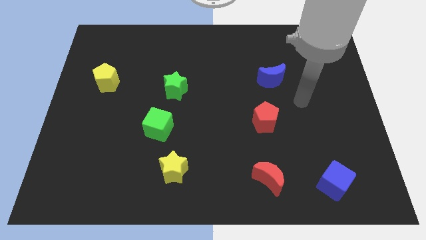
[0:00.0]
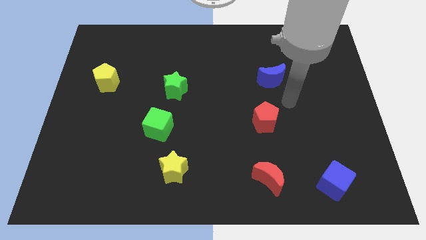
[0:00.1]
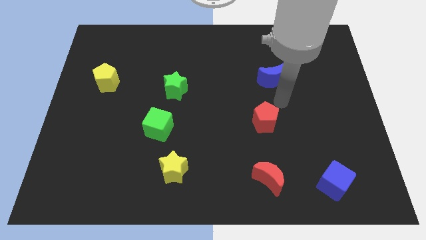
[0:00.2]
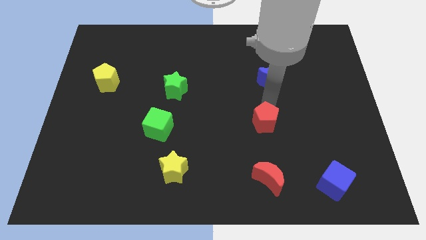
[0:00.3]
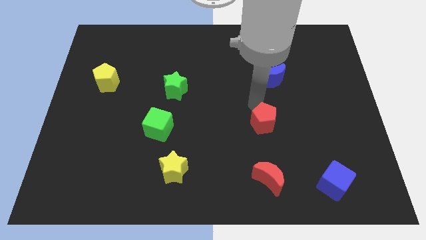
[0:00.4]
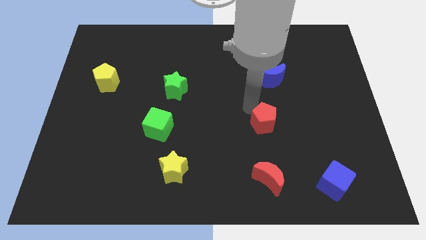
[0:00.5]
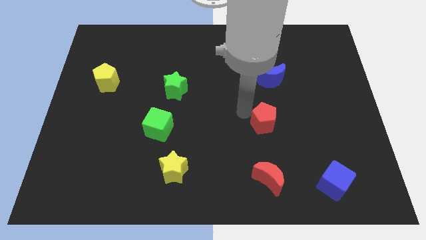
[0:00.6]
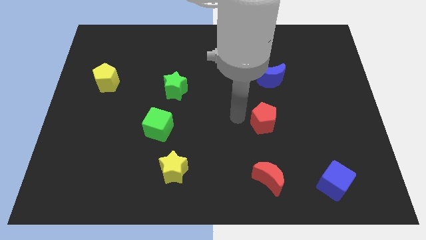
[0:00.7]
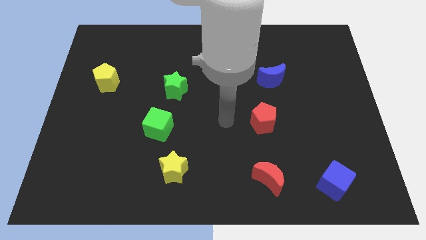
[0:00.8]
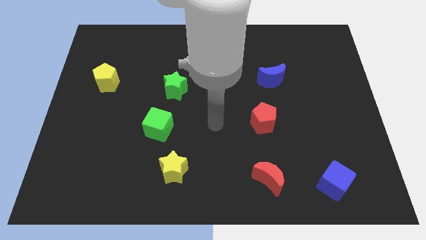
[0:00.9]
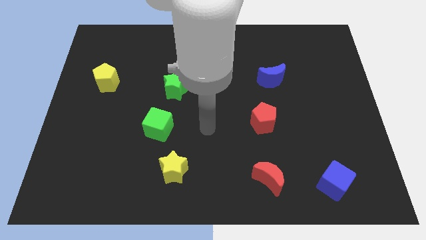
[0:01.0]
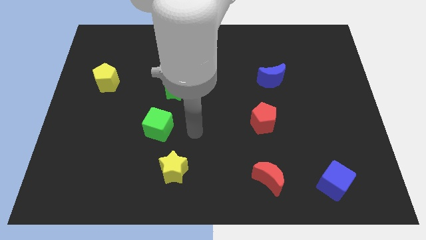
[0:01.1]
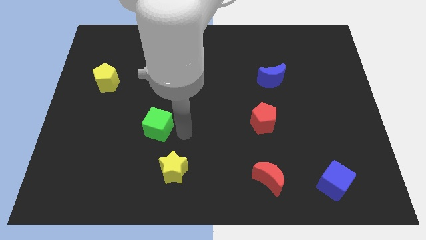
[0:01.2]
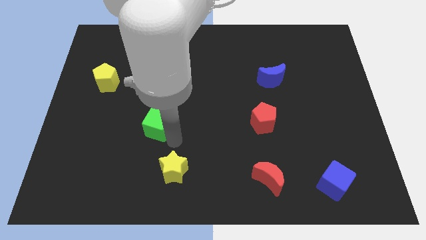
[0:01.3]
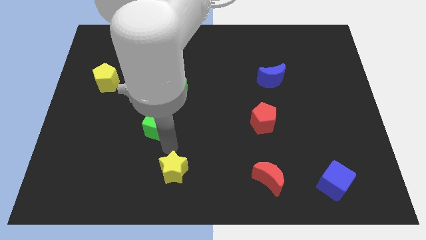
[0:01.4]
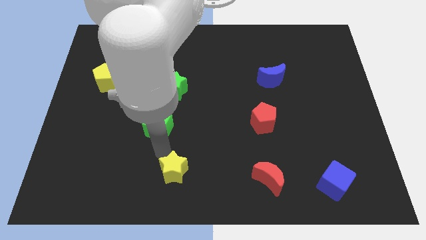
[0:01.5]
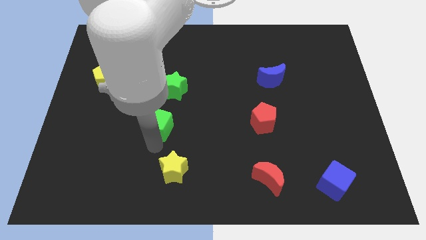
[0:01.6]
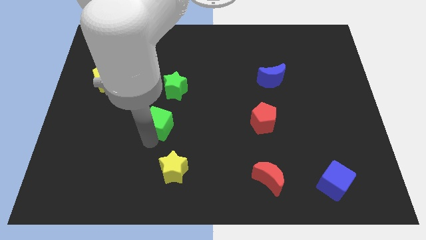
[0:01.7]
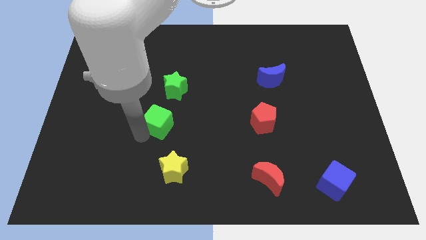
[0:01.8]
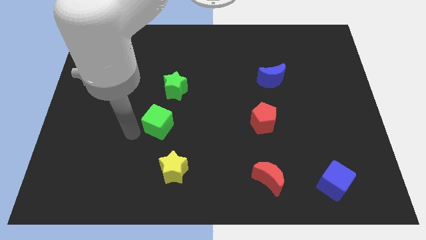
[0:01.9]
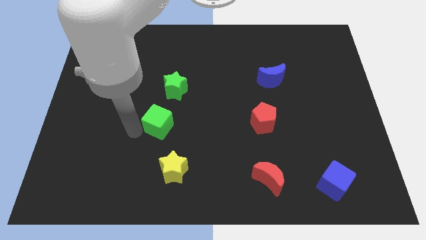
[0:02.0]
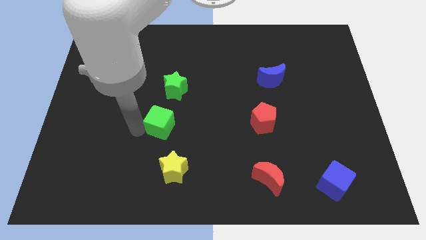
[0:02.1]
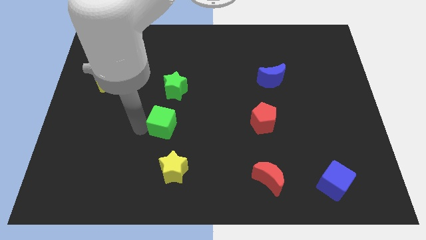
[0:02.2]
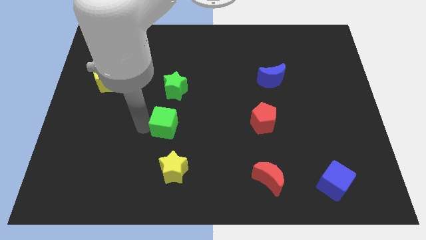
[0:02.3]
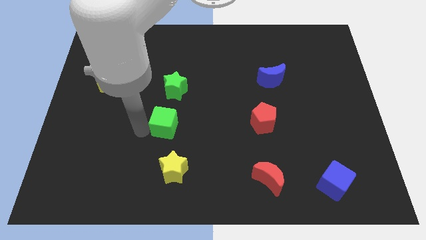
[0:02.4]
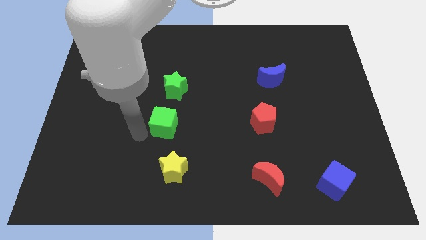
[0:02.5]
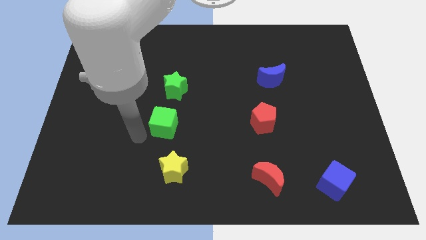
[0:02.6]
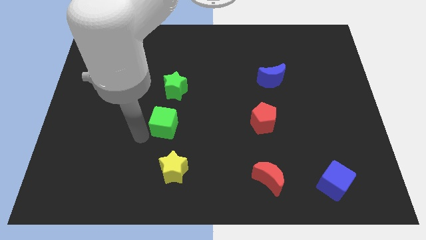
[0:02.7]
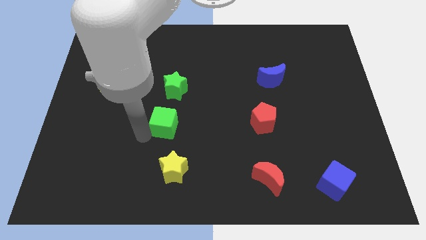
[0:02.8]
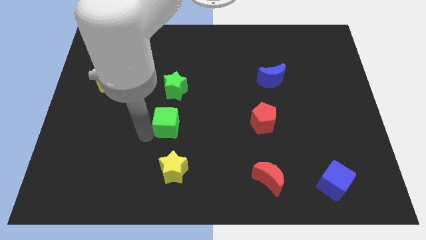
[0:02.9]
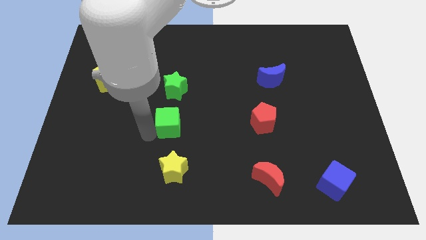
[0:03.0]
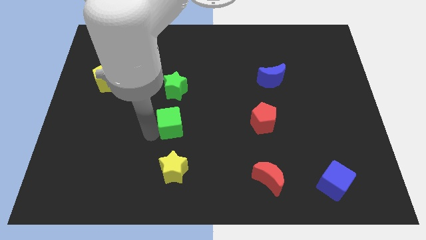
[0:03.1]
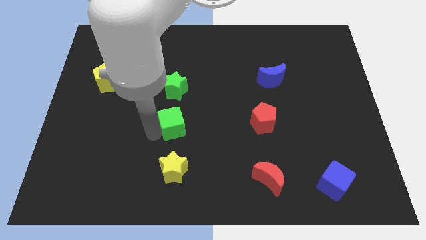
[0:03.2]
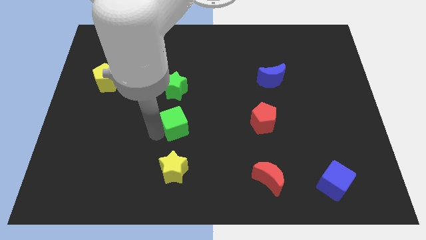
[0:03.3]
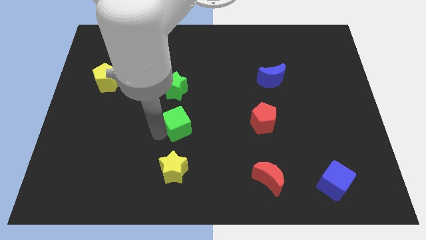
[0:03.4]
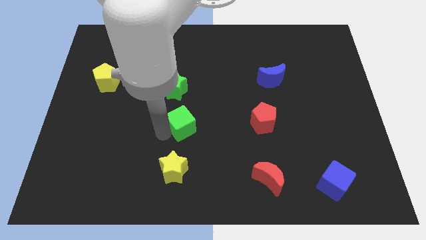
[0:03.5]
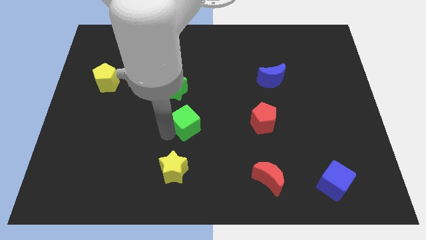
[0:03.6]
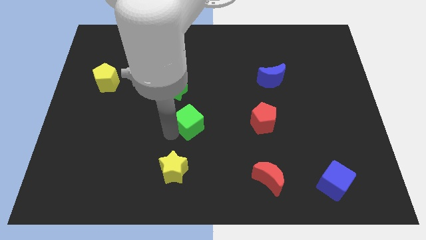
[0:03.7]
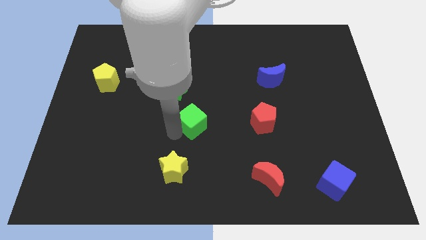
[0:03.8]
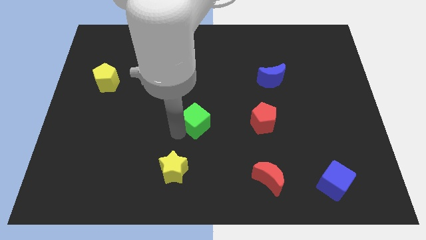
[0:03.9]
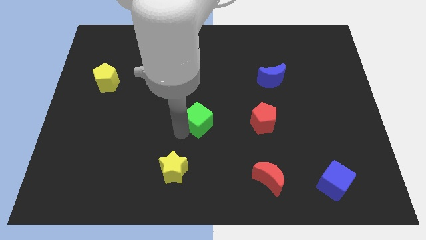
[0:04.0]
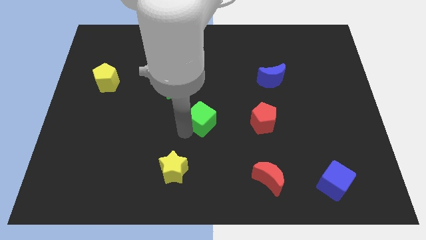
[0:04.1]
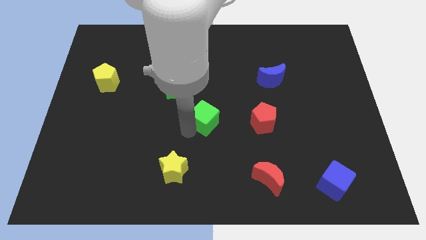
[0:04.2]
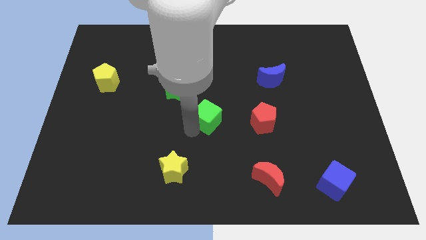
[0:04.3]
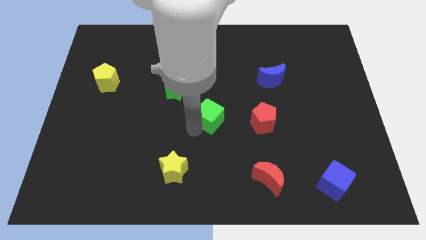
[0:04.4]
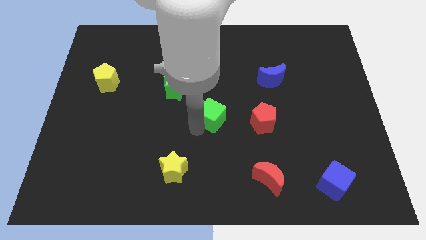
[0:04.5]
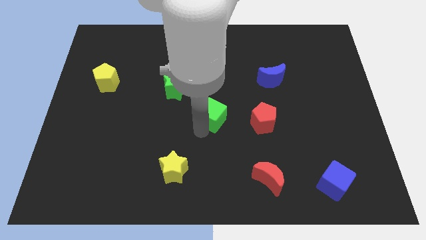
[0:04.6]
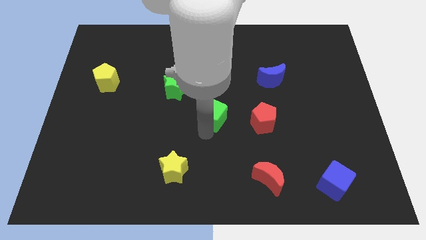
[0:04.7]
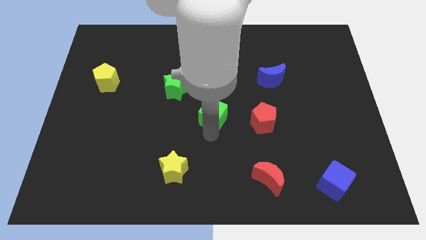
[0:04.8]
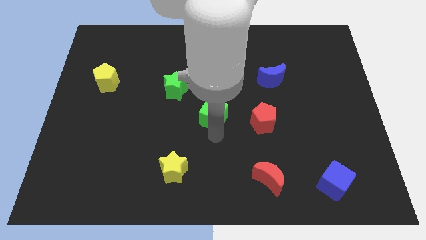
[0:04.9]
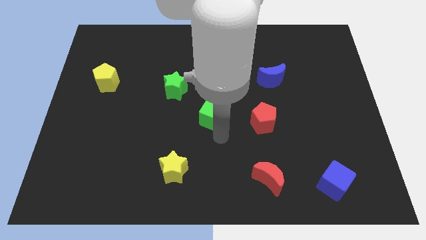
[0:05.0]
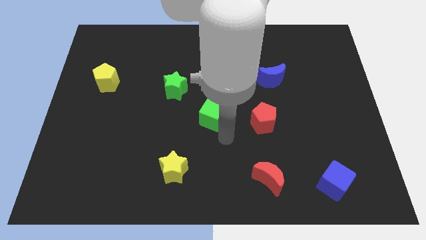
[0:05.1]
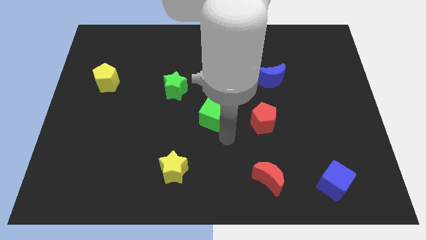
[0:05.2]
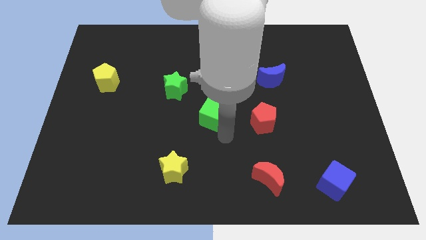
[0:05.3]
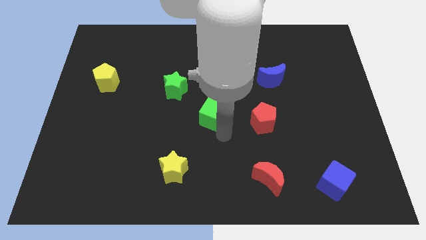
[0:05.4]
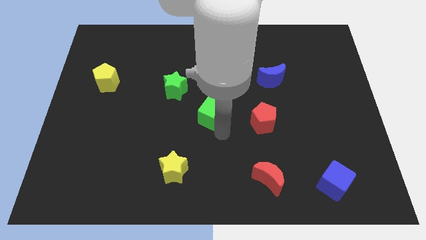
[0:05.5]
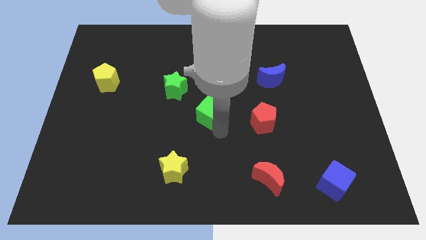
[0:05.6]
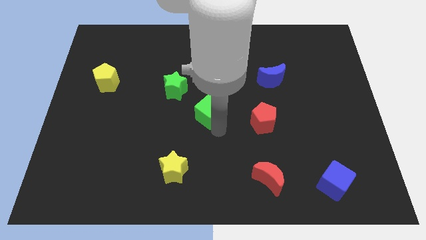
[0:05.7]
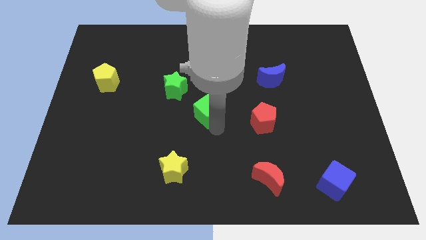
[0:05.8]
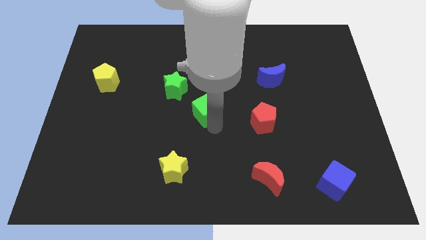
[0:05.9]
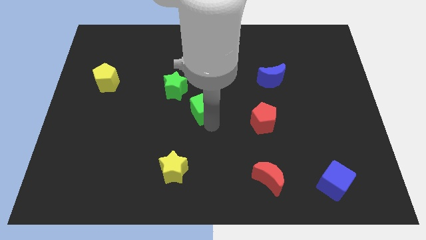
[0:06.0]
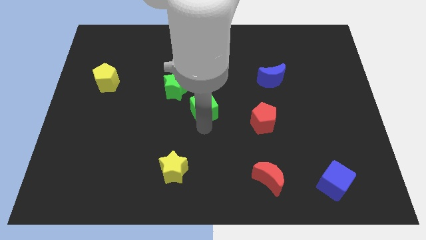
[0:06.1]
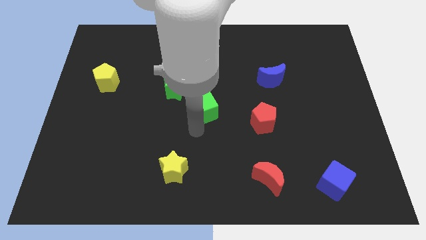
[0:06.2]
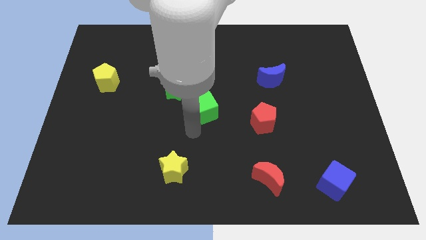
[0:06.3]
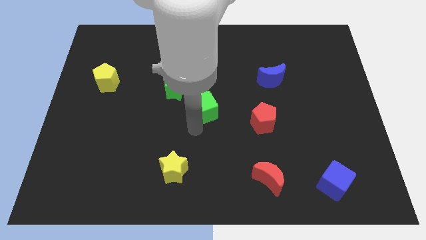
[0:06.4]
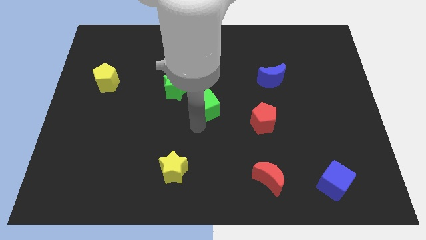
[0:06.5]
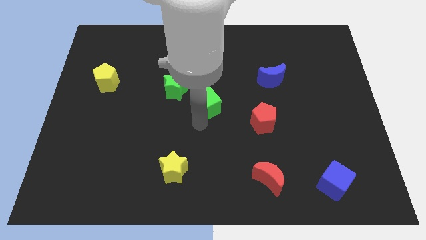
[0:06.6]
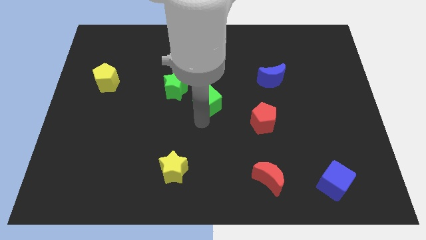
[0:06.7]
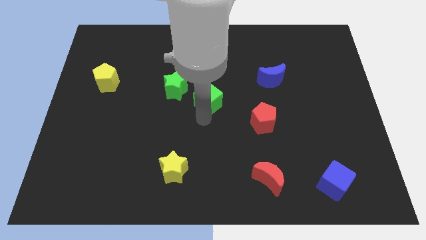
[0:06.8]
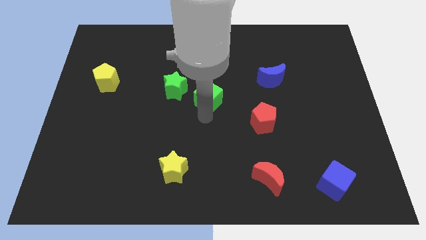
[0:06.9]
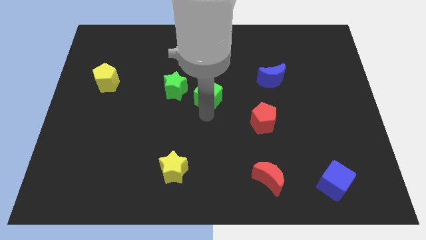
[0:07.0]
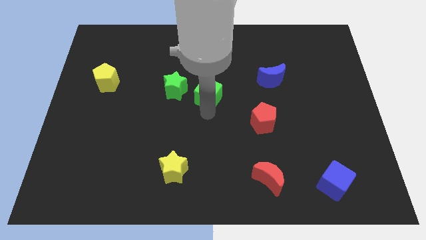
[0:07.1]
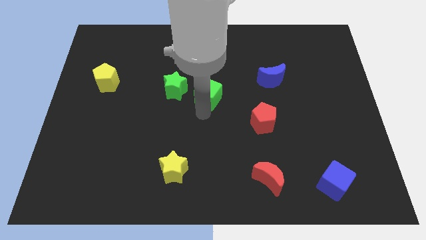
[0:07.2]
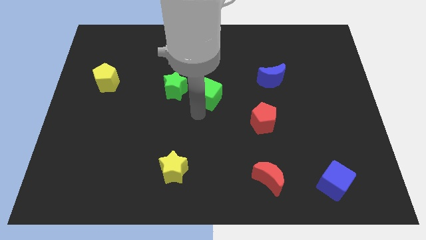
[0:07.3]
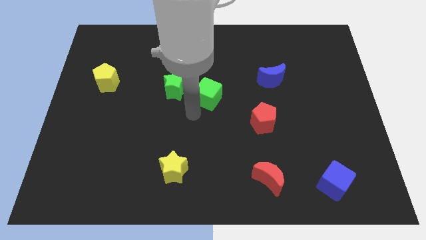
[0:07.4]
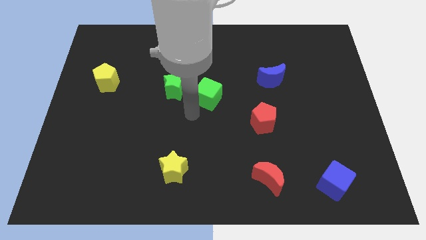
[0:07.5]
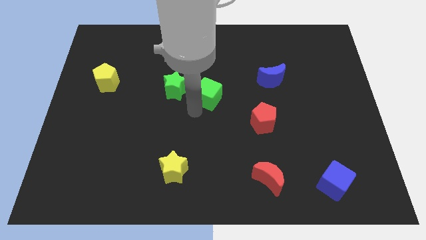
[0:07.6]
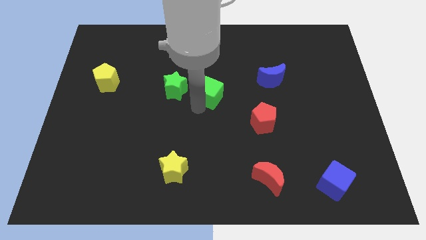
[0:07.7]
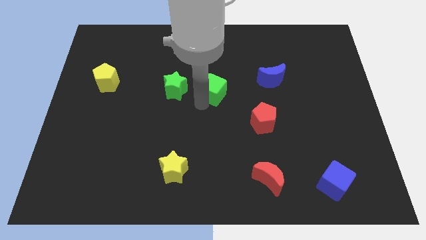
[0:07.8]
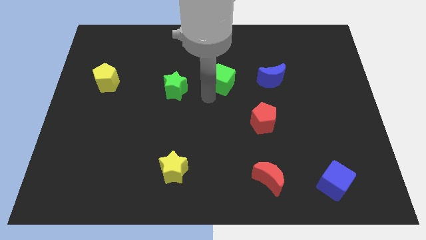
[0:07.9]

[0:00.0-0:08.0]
slide the green cube upwards and right diagonally

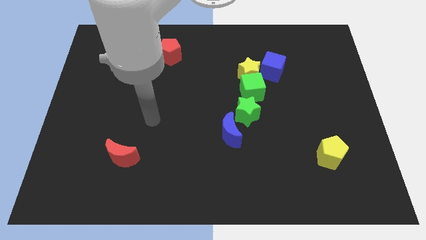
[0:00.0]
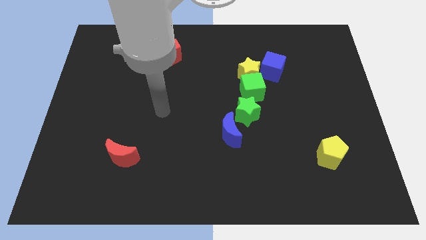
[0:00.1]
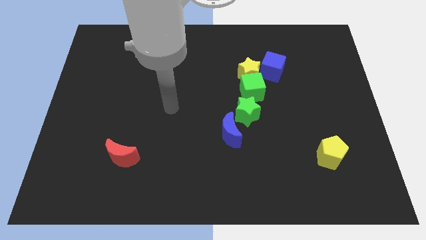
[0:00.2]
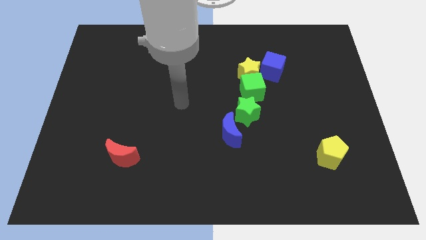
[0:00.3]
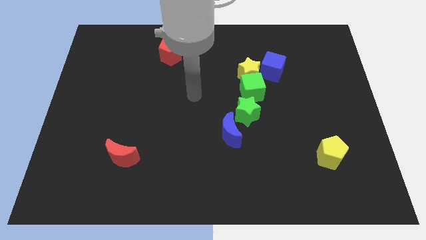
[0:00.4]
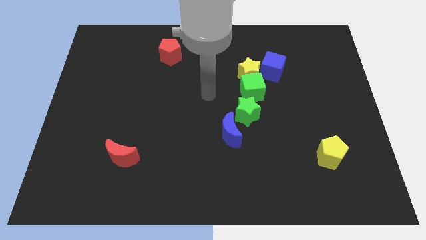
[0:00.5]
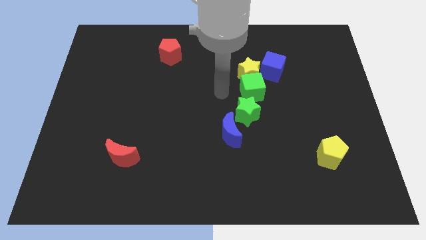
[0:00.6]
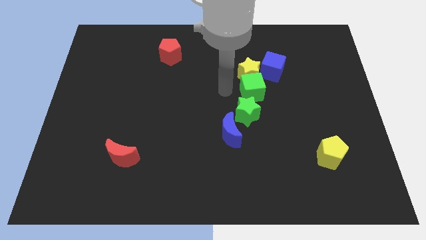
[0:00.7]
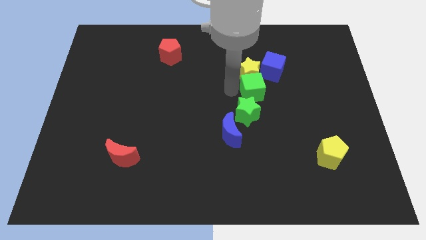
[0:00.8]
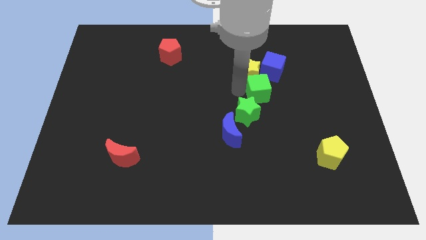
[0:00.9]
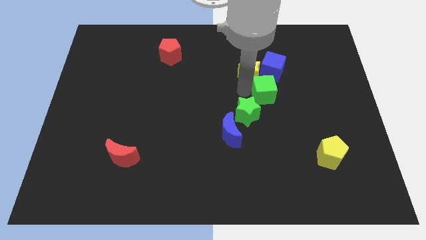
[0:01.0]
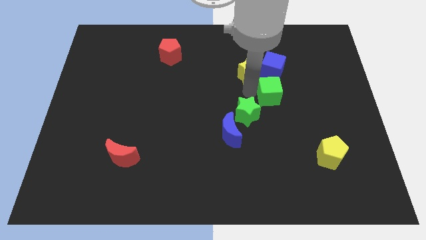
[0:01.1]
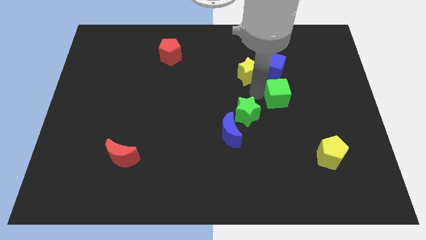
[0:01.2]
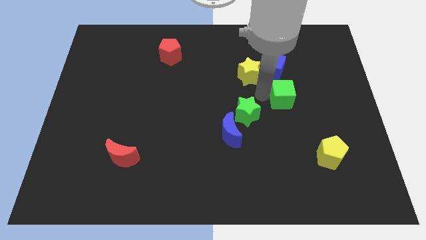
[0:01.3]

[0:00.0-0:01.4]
slightly push the green cube to the right
